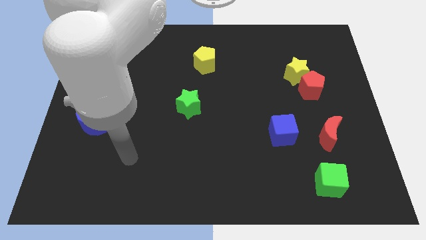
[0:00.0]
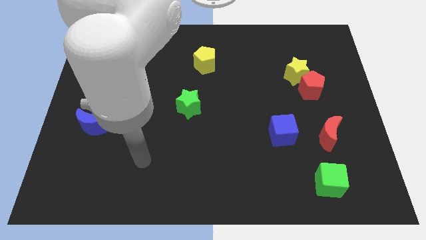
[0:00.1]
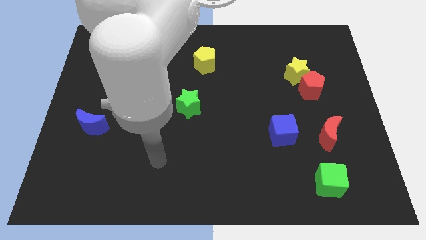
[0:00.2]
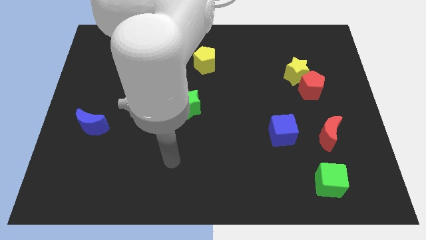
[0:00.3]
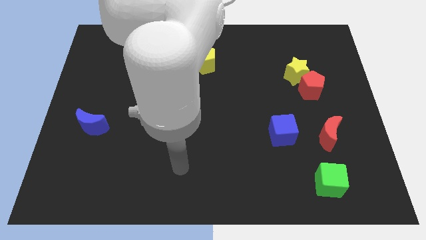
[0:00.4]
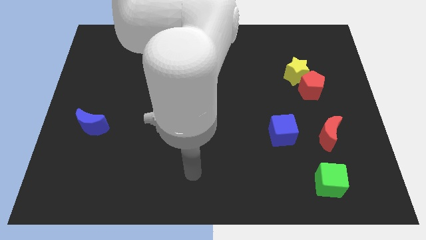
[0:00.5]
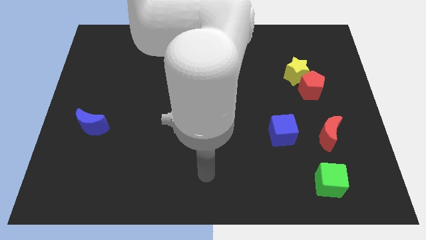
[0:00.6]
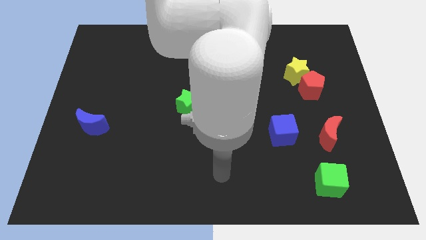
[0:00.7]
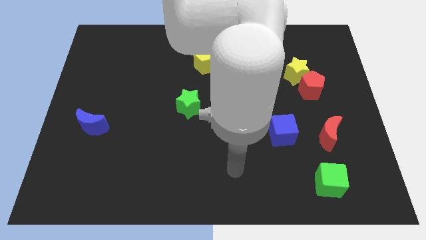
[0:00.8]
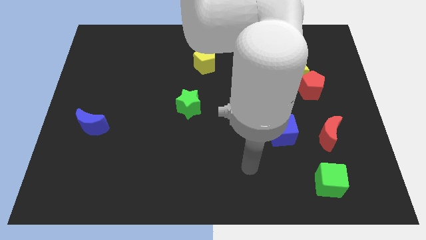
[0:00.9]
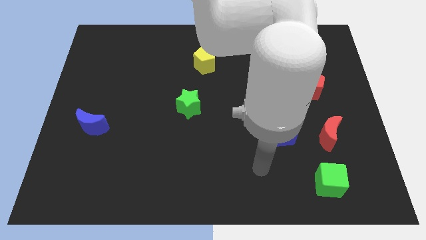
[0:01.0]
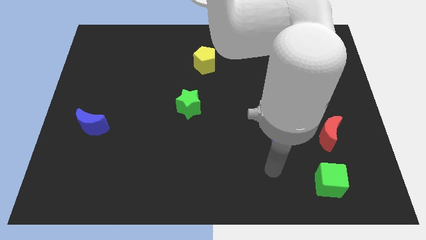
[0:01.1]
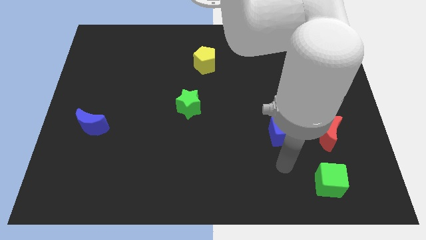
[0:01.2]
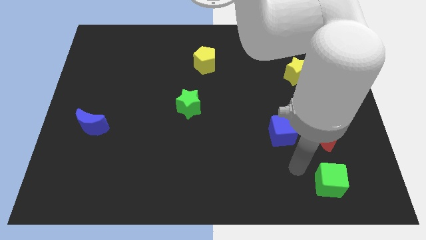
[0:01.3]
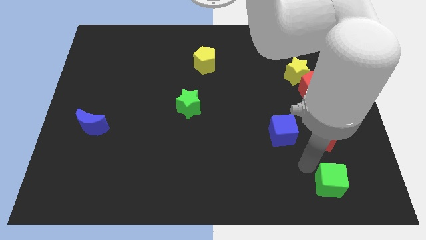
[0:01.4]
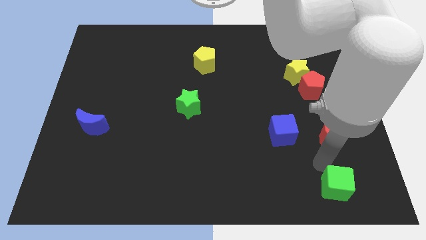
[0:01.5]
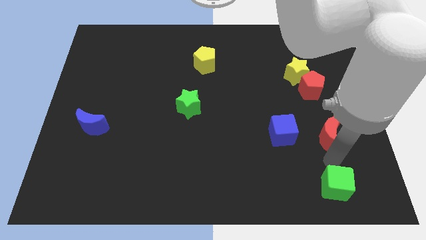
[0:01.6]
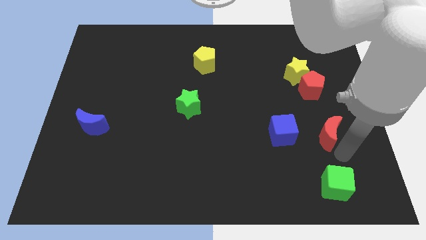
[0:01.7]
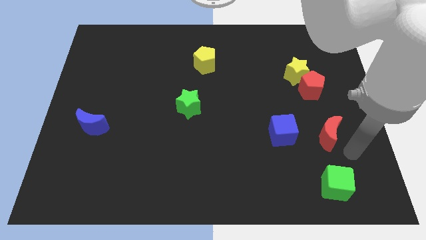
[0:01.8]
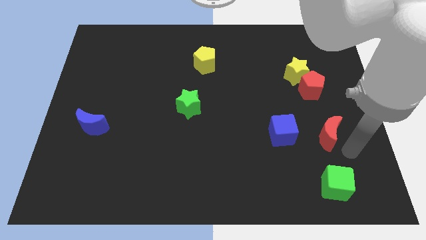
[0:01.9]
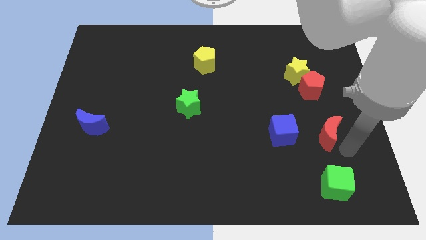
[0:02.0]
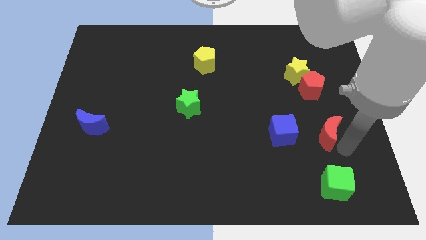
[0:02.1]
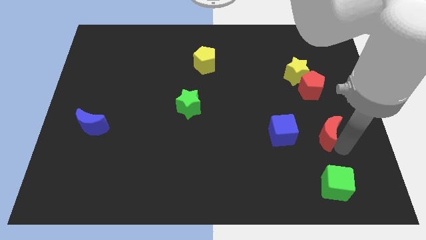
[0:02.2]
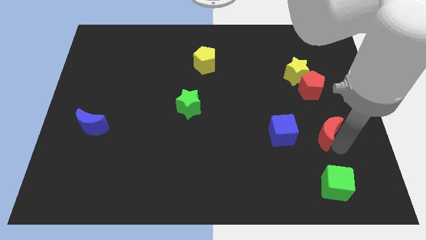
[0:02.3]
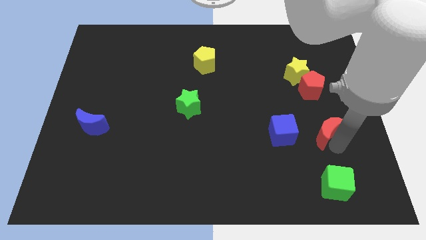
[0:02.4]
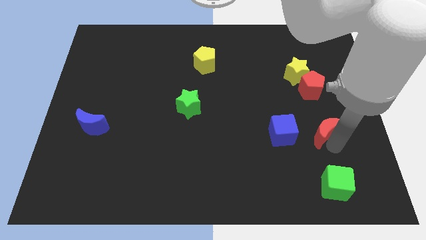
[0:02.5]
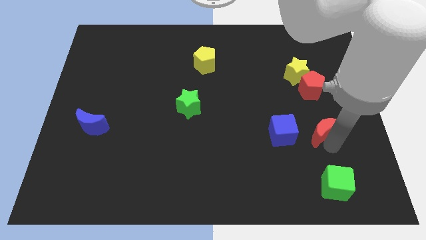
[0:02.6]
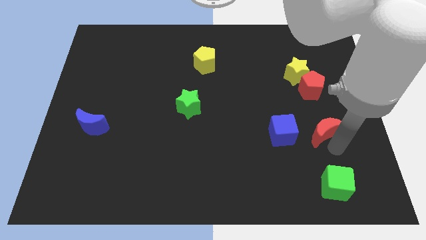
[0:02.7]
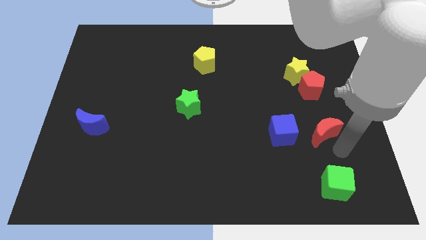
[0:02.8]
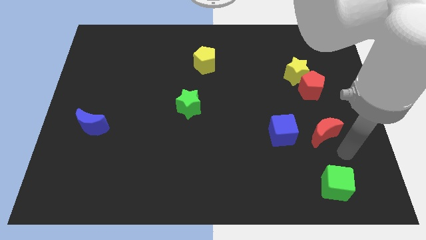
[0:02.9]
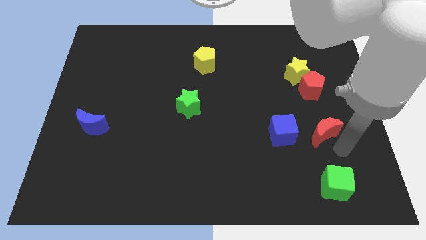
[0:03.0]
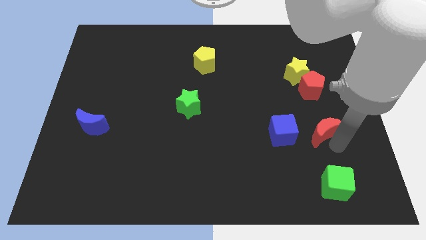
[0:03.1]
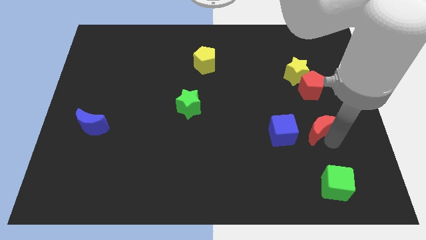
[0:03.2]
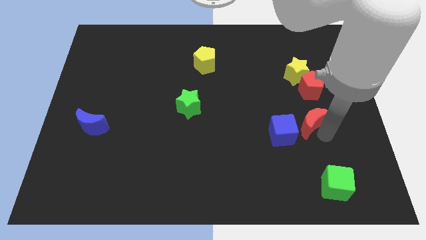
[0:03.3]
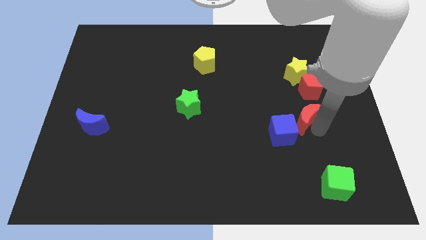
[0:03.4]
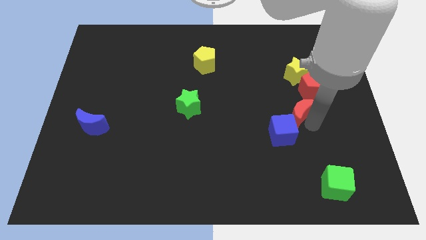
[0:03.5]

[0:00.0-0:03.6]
slide the red moon up and left diagonally a little bit

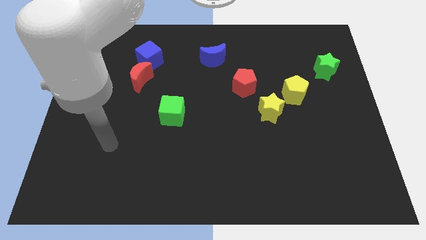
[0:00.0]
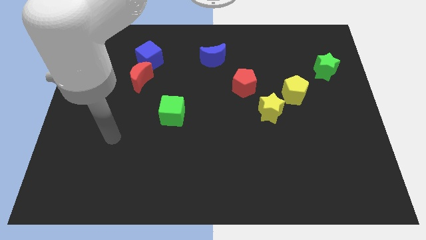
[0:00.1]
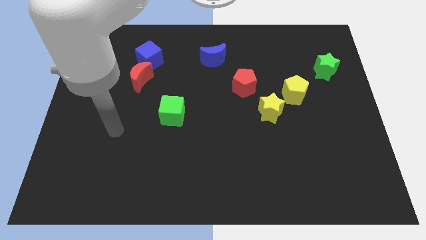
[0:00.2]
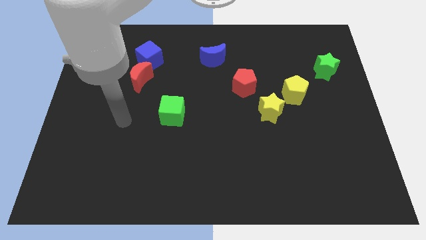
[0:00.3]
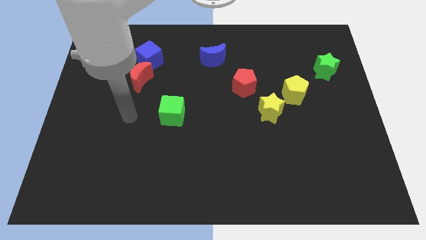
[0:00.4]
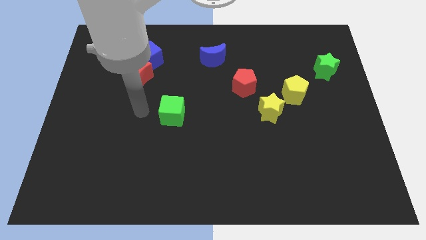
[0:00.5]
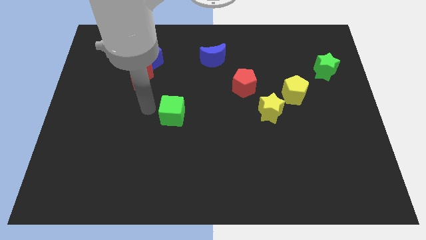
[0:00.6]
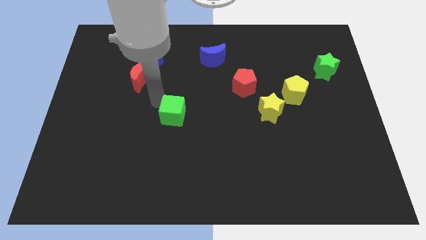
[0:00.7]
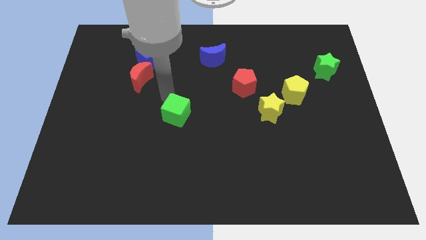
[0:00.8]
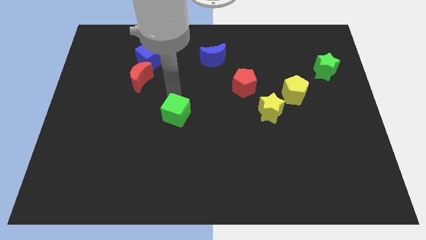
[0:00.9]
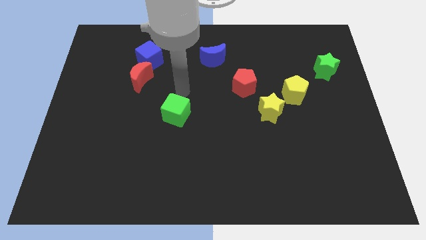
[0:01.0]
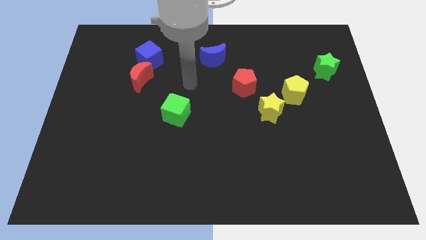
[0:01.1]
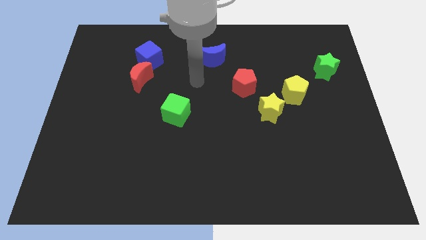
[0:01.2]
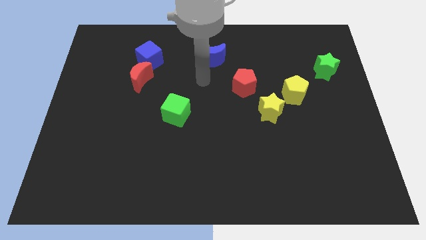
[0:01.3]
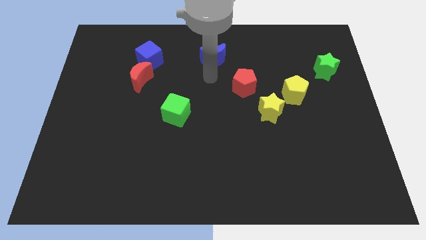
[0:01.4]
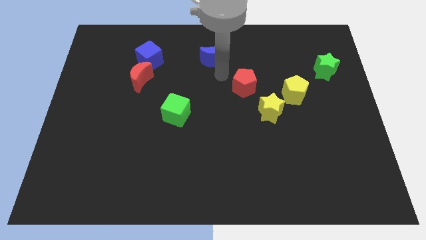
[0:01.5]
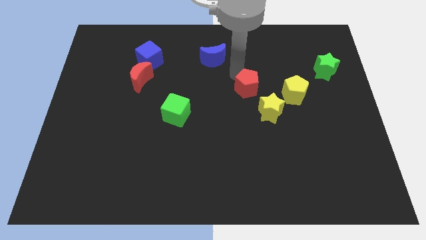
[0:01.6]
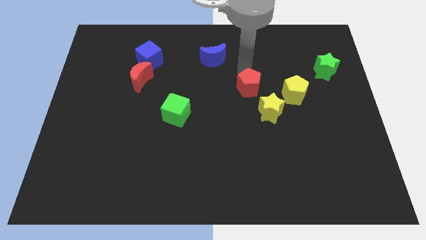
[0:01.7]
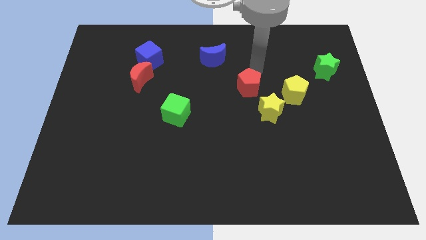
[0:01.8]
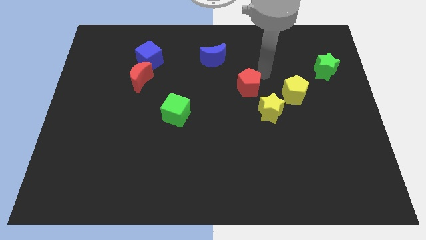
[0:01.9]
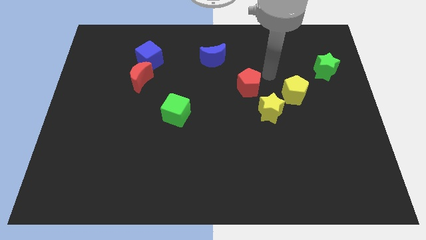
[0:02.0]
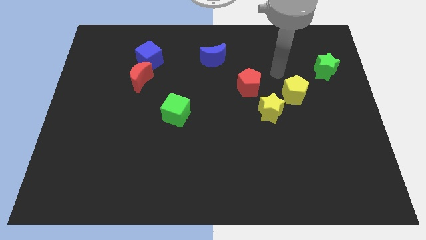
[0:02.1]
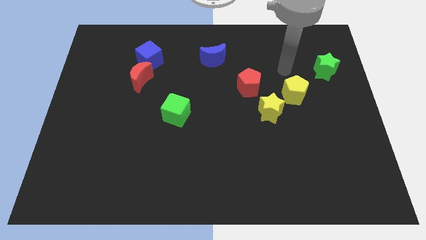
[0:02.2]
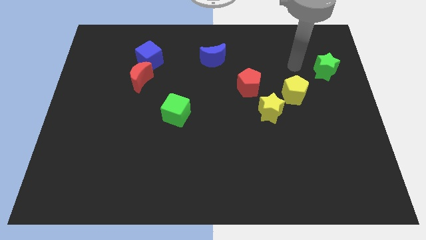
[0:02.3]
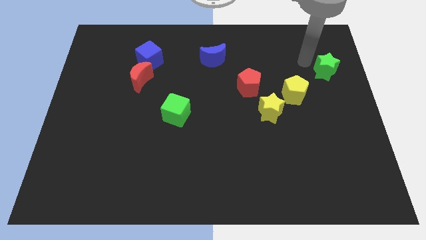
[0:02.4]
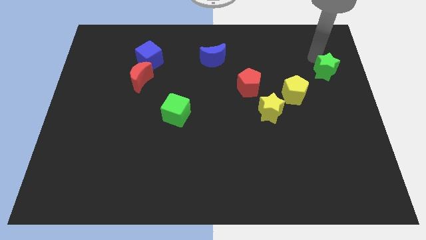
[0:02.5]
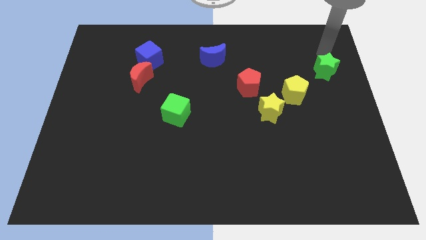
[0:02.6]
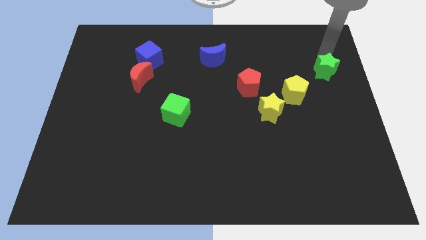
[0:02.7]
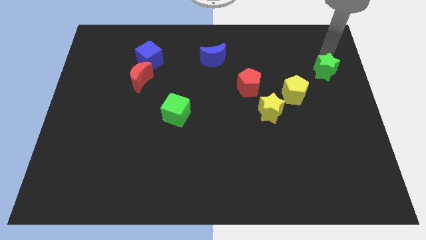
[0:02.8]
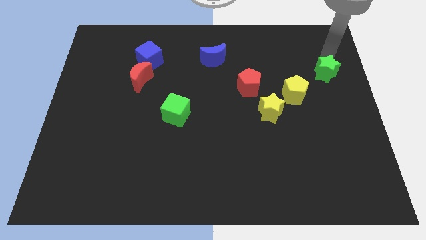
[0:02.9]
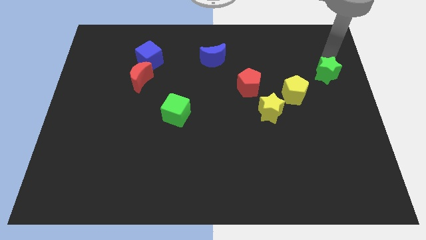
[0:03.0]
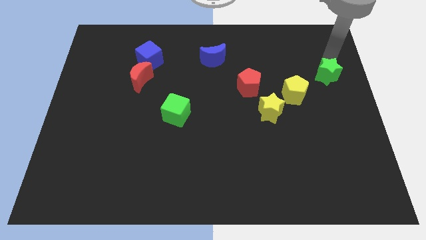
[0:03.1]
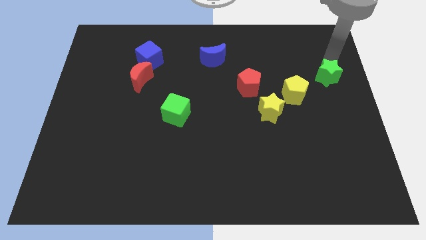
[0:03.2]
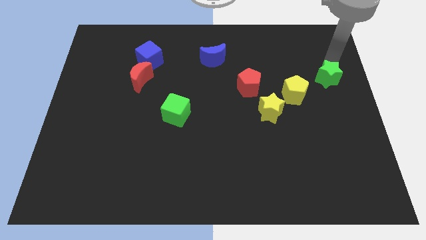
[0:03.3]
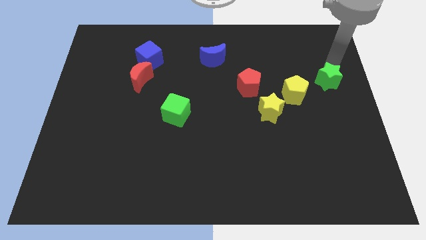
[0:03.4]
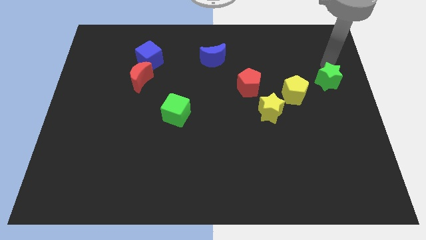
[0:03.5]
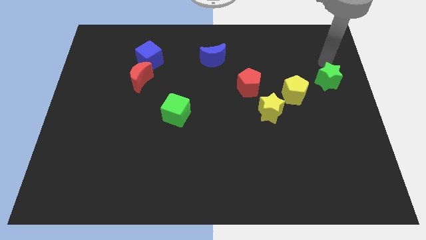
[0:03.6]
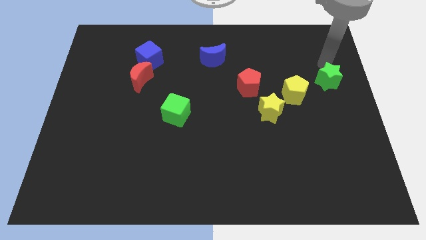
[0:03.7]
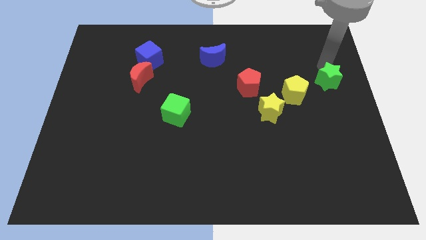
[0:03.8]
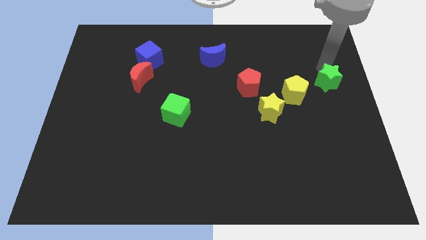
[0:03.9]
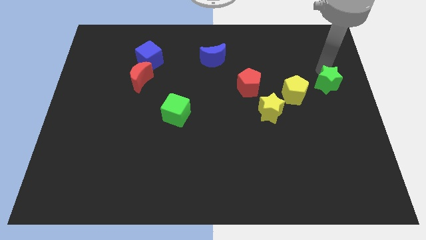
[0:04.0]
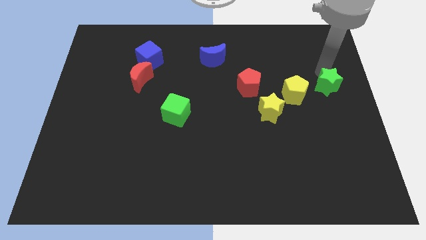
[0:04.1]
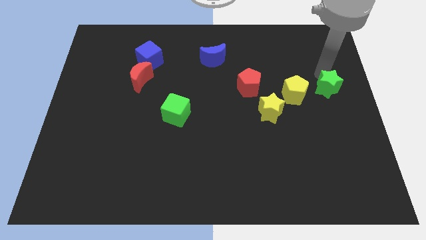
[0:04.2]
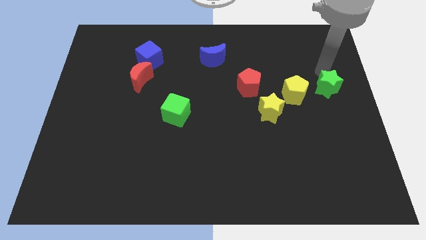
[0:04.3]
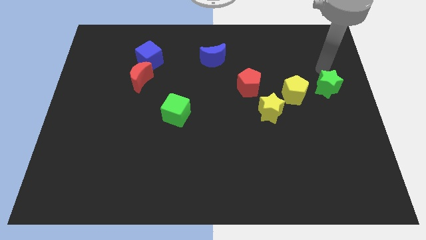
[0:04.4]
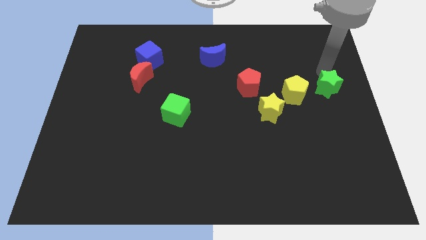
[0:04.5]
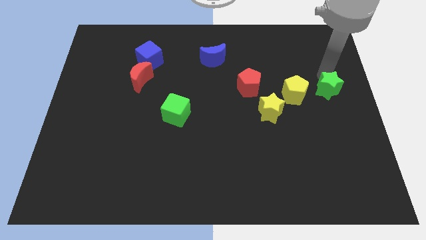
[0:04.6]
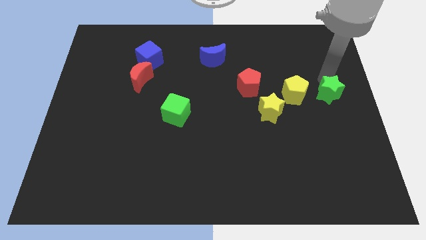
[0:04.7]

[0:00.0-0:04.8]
move the green star downwards a little
